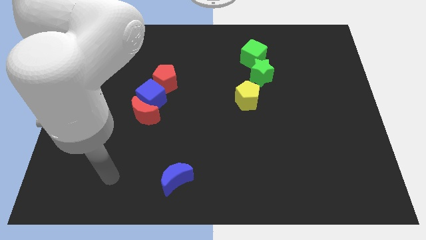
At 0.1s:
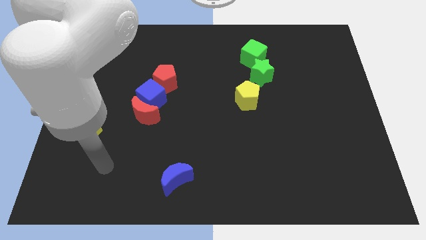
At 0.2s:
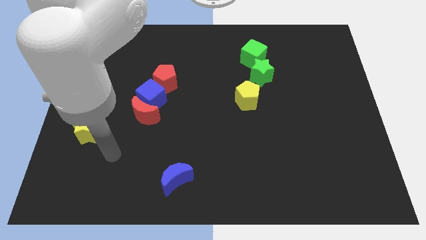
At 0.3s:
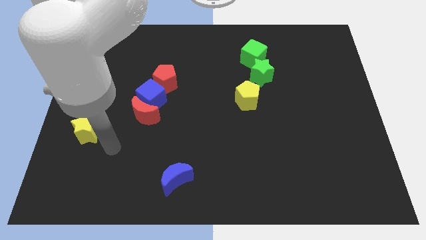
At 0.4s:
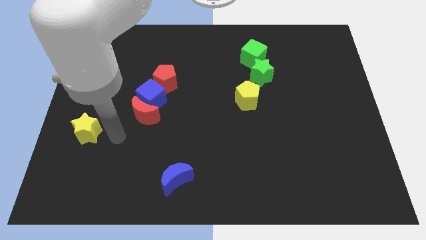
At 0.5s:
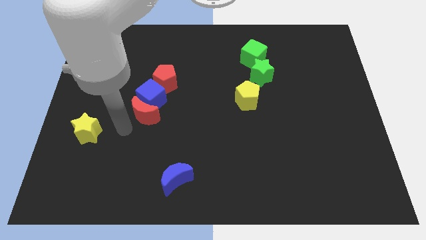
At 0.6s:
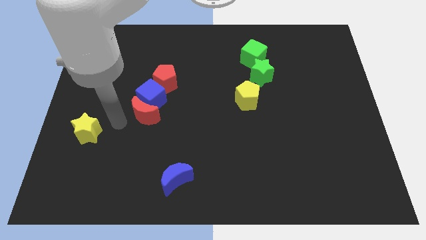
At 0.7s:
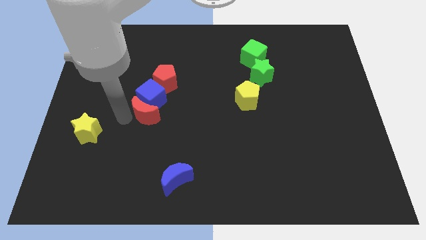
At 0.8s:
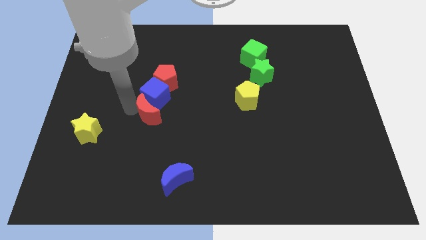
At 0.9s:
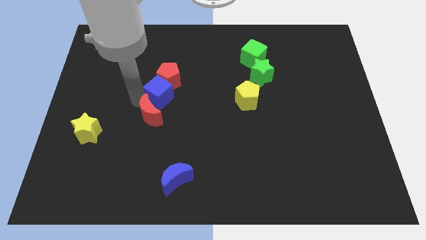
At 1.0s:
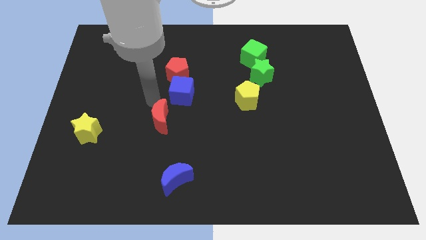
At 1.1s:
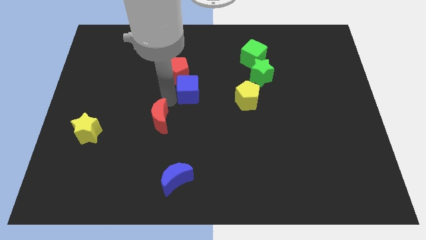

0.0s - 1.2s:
move the red moon away from the blue cube

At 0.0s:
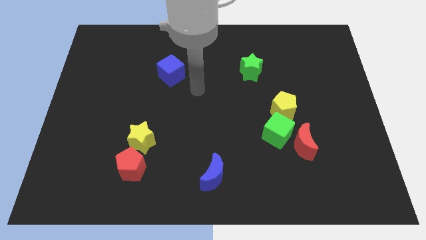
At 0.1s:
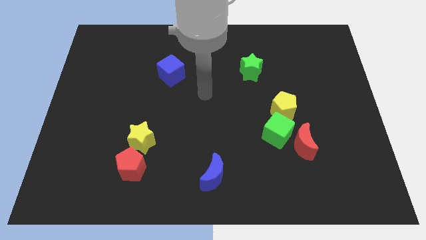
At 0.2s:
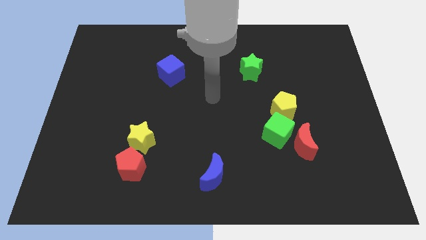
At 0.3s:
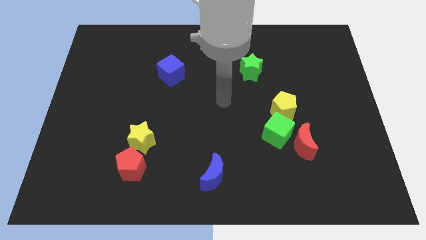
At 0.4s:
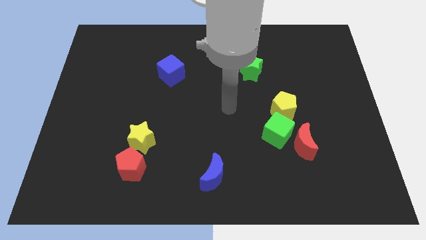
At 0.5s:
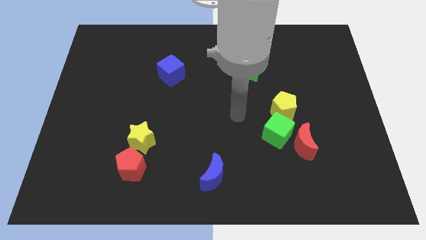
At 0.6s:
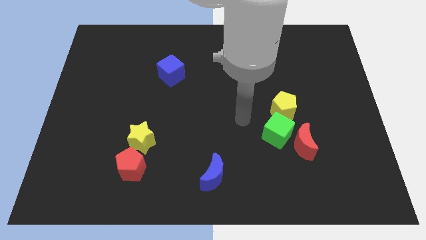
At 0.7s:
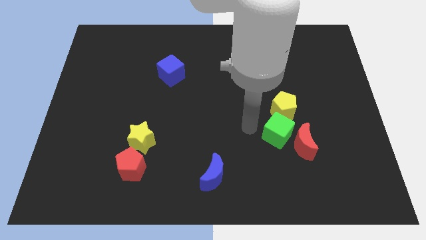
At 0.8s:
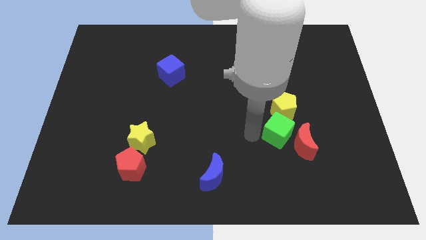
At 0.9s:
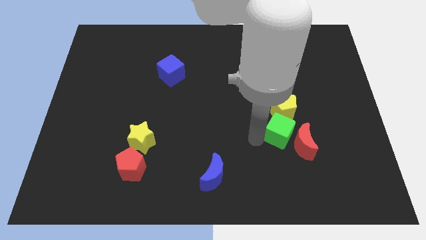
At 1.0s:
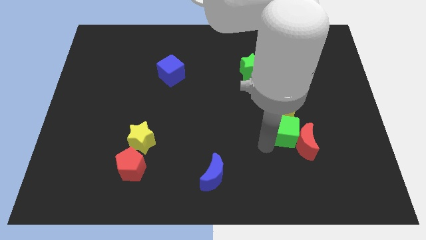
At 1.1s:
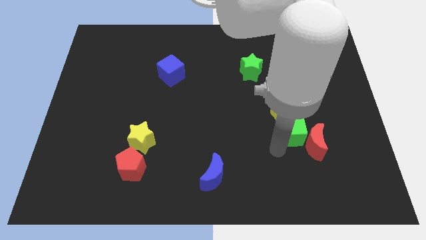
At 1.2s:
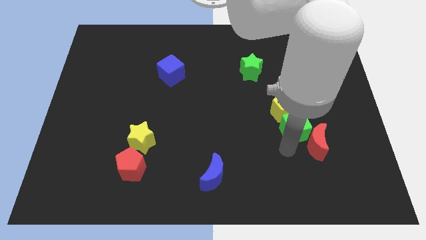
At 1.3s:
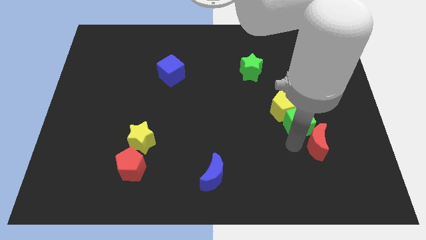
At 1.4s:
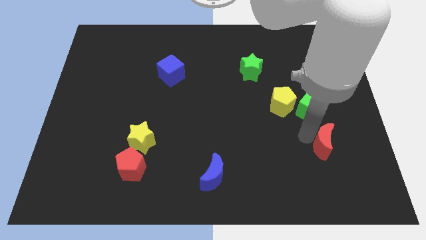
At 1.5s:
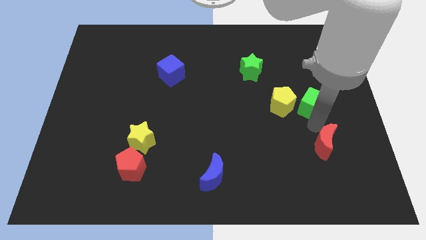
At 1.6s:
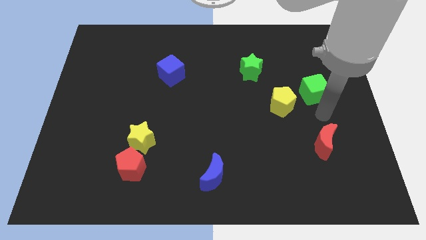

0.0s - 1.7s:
pull the green cube apart from the red moon and yellow pentagon

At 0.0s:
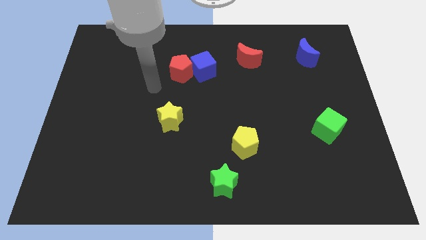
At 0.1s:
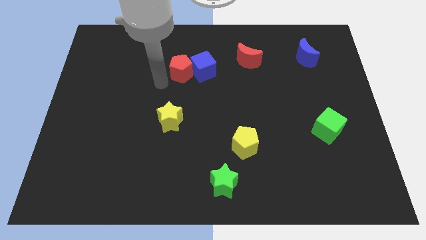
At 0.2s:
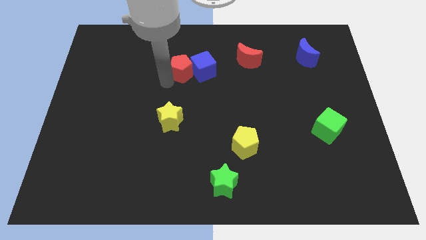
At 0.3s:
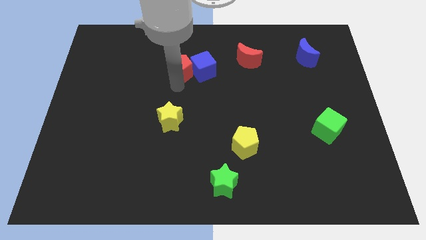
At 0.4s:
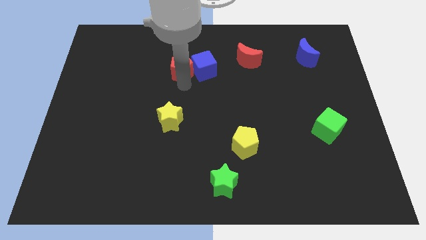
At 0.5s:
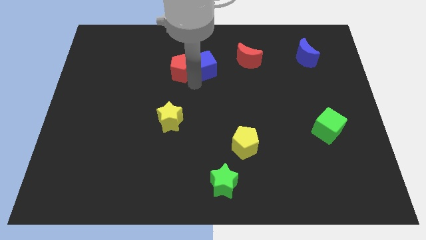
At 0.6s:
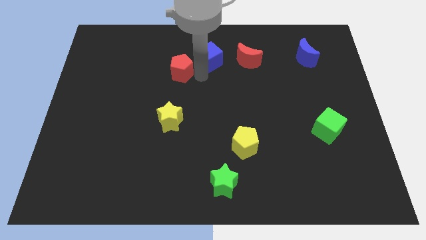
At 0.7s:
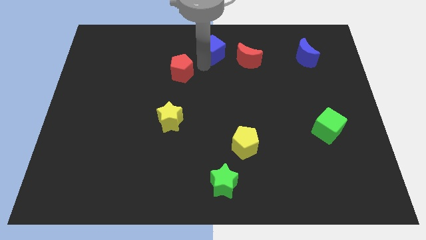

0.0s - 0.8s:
move the red pentagon away from the blue cube

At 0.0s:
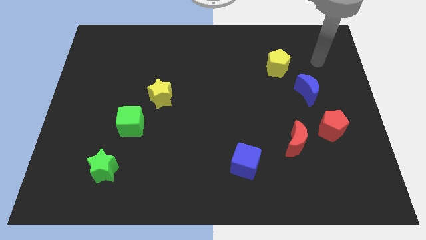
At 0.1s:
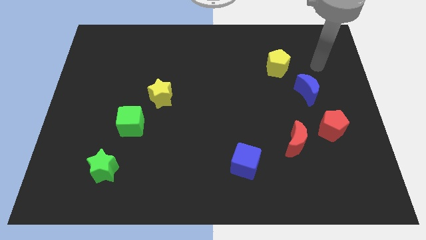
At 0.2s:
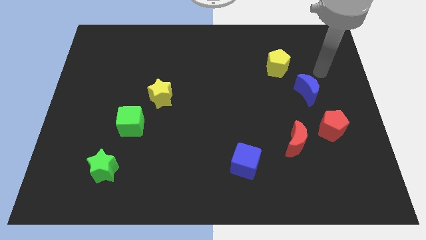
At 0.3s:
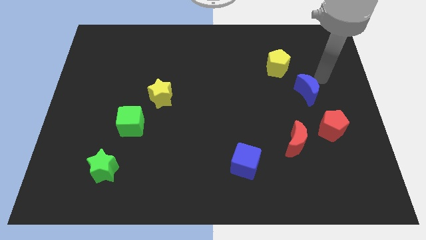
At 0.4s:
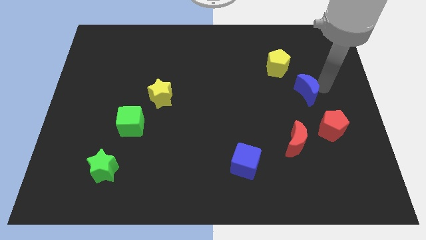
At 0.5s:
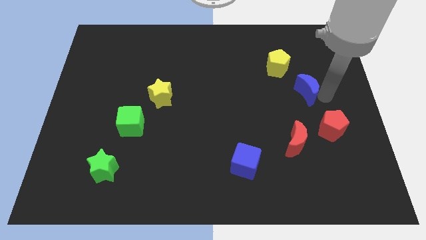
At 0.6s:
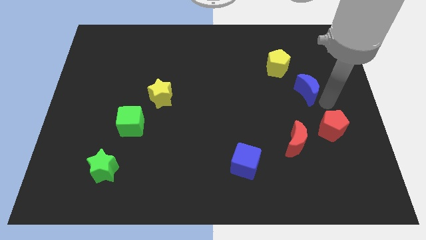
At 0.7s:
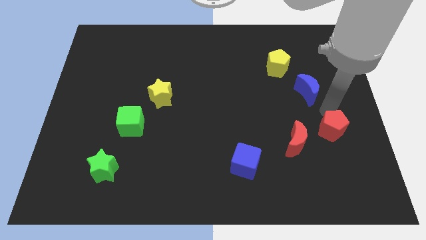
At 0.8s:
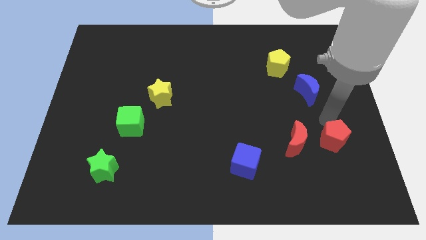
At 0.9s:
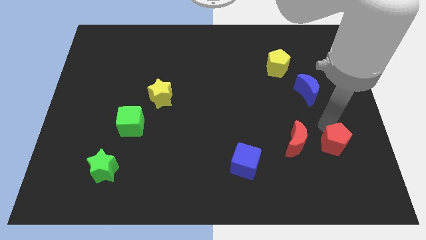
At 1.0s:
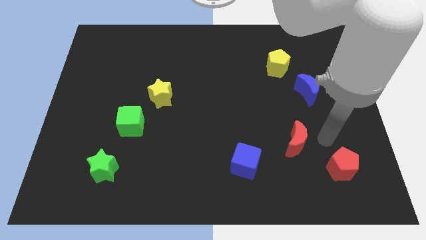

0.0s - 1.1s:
move the red moon away from the red pentagon

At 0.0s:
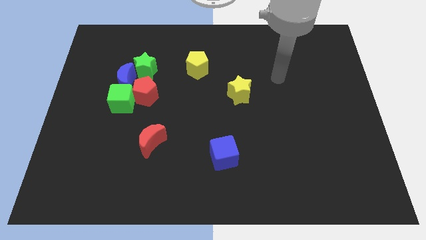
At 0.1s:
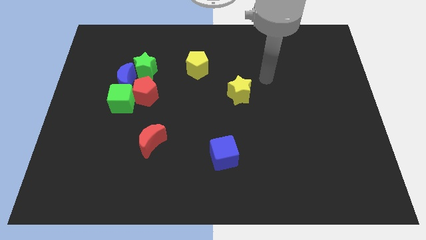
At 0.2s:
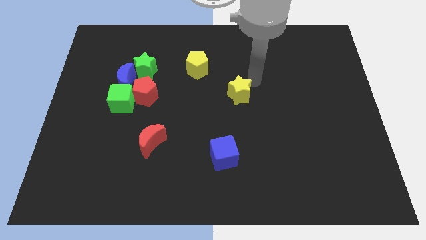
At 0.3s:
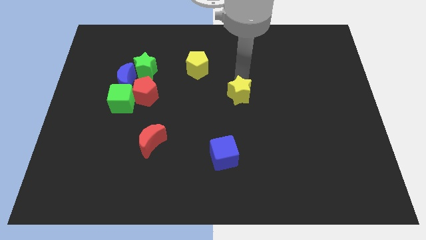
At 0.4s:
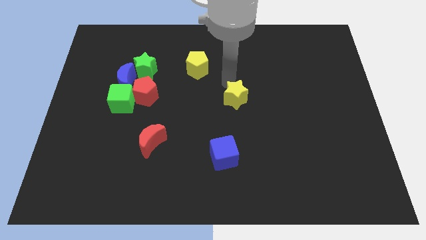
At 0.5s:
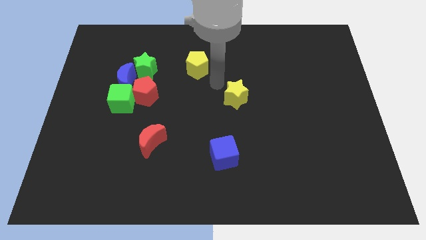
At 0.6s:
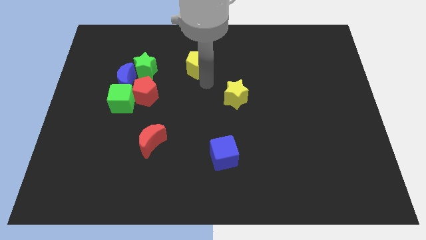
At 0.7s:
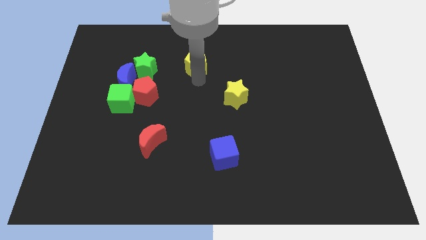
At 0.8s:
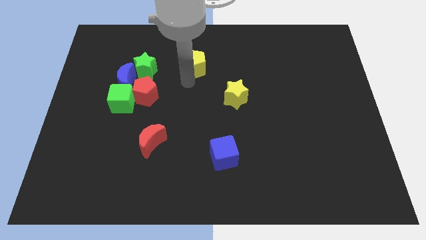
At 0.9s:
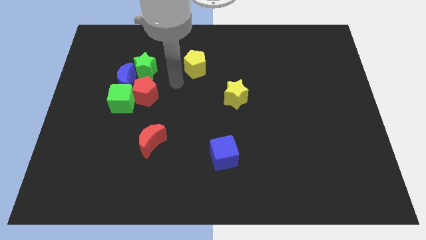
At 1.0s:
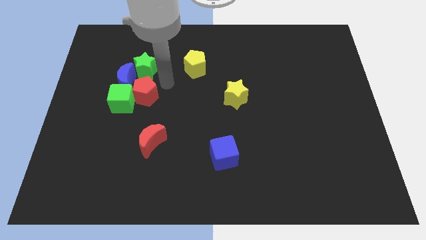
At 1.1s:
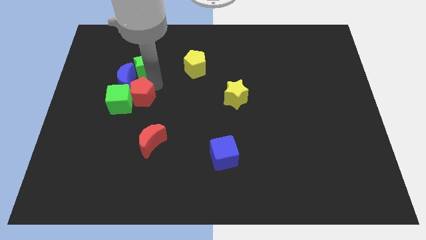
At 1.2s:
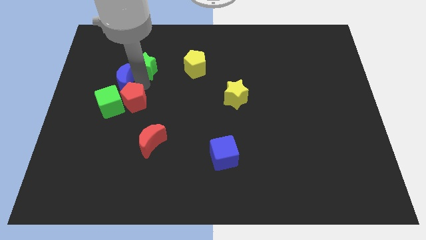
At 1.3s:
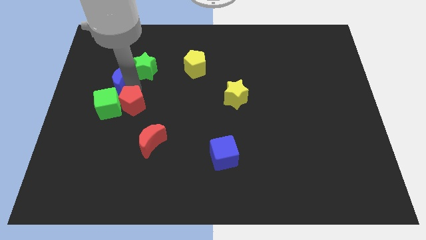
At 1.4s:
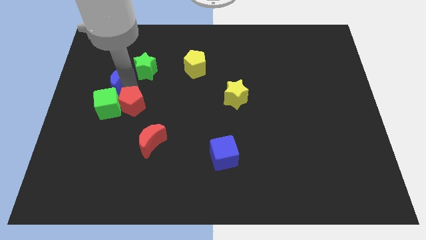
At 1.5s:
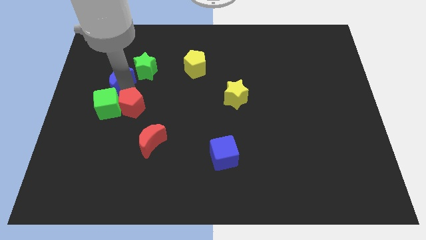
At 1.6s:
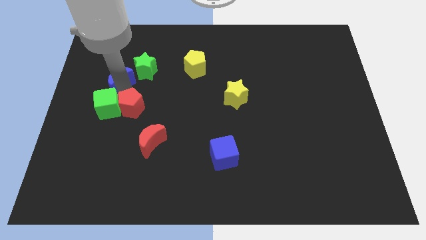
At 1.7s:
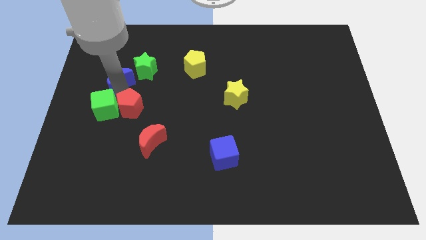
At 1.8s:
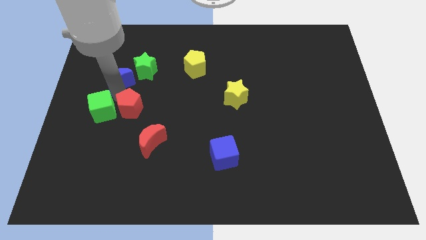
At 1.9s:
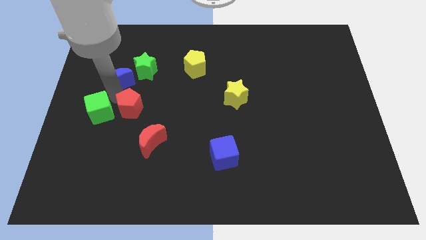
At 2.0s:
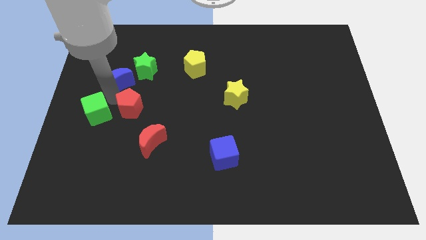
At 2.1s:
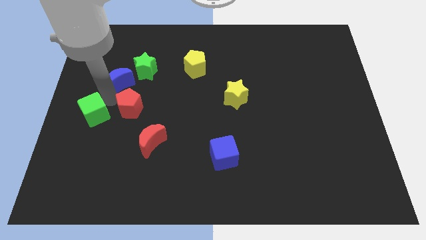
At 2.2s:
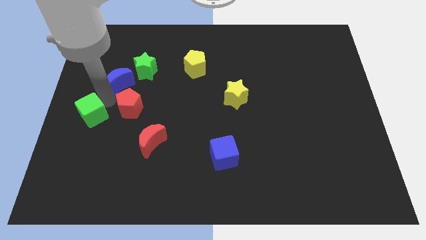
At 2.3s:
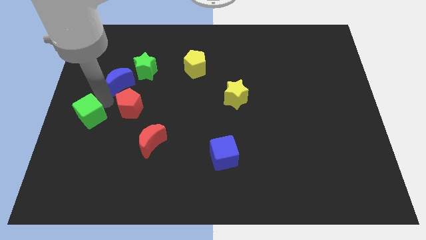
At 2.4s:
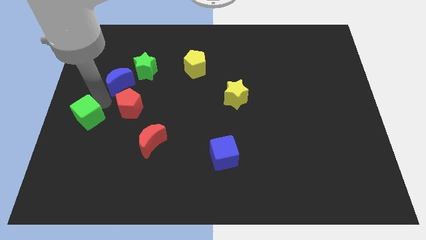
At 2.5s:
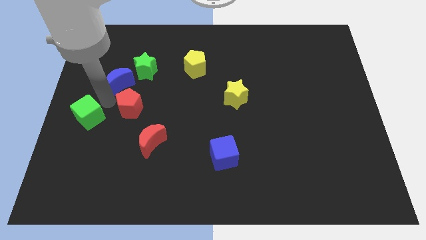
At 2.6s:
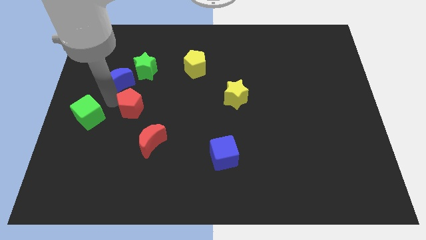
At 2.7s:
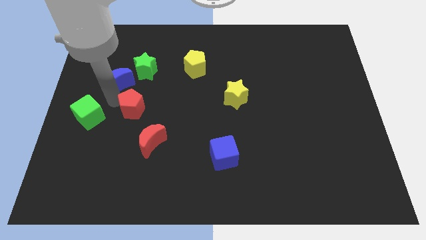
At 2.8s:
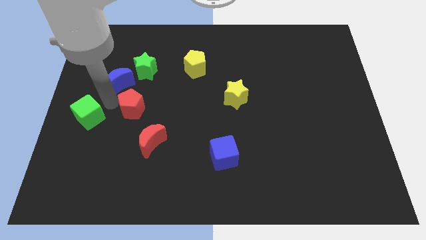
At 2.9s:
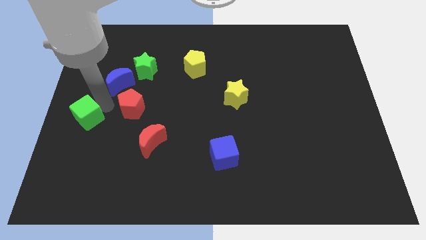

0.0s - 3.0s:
move the green cube away from the red pentagon and blue moon

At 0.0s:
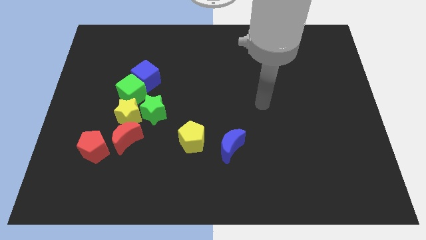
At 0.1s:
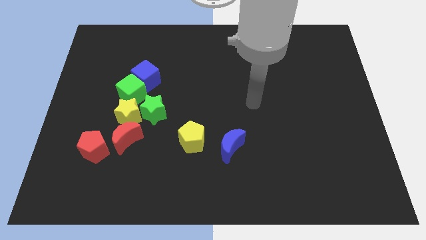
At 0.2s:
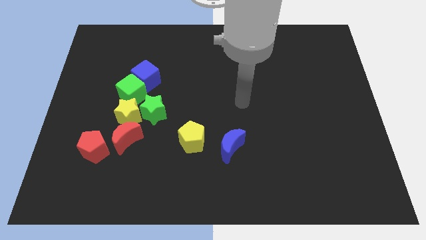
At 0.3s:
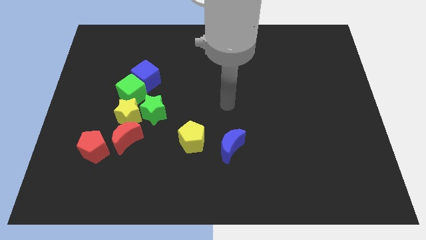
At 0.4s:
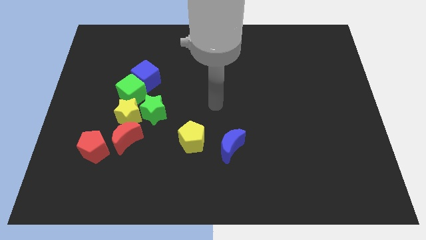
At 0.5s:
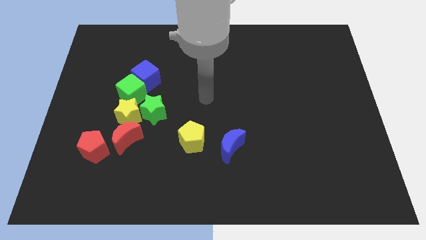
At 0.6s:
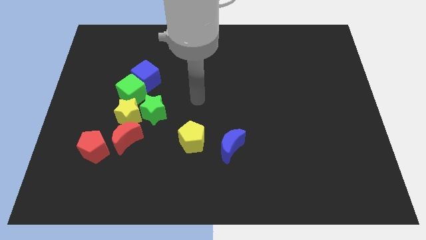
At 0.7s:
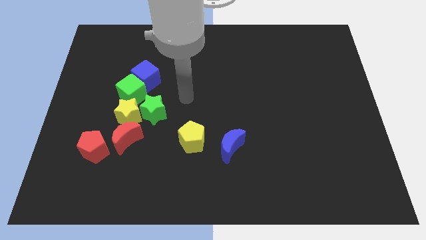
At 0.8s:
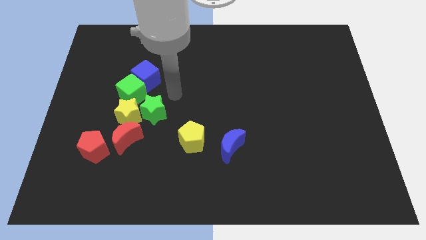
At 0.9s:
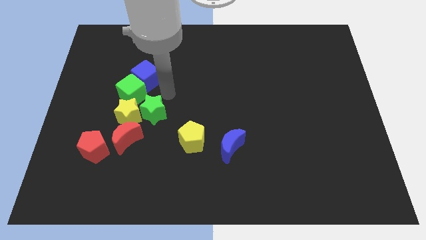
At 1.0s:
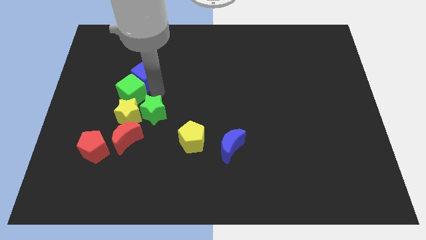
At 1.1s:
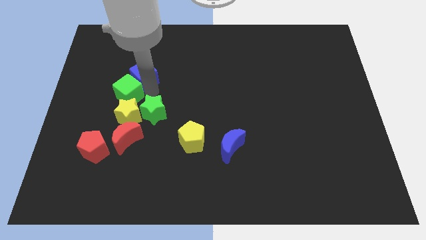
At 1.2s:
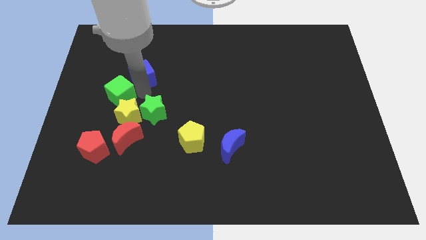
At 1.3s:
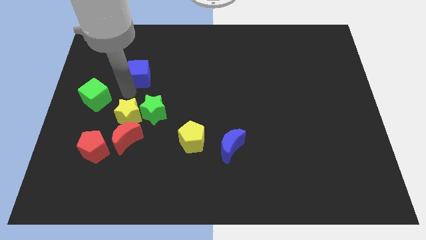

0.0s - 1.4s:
separate the blue cube from the green cube
